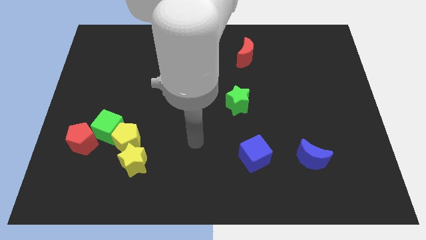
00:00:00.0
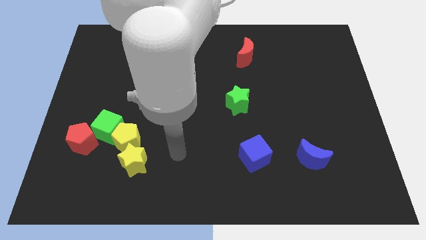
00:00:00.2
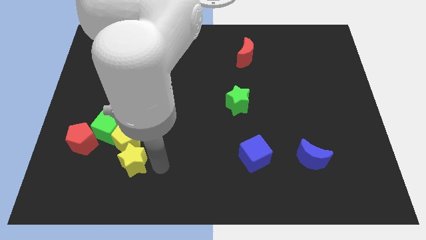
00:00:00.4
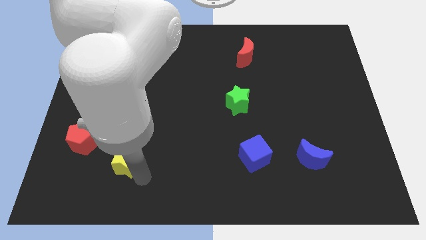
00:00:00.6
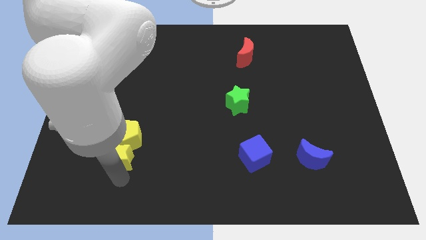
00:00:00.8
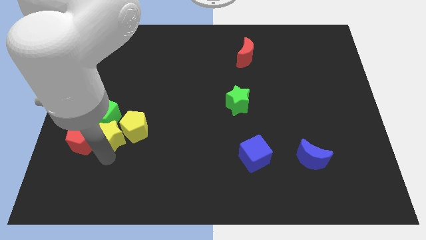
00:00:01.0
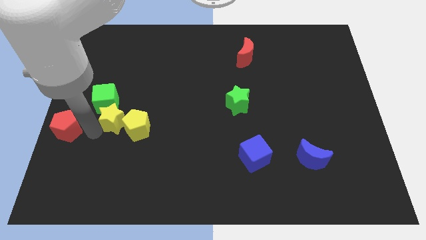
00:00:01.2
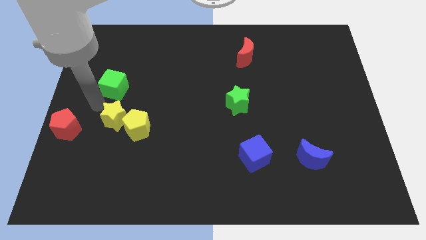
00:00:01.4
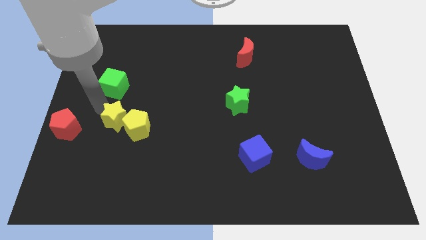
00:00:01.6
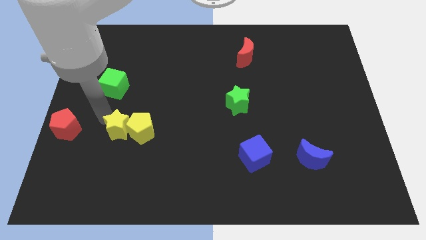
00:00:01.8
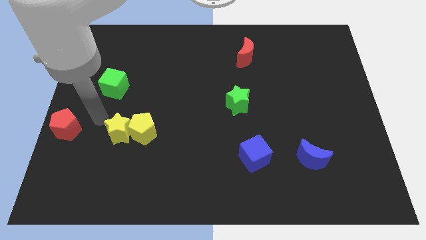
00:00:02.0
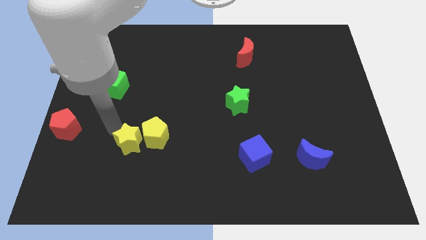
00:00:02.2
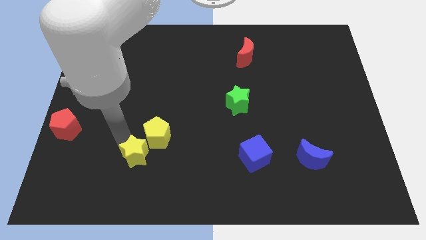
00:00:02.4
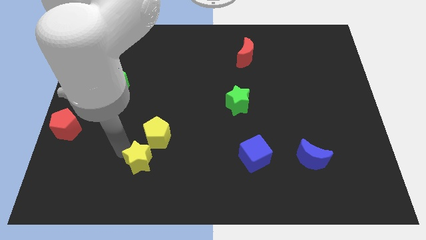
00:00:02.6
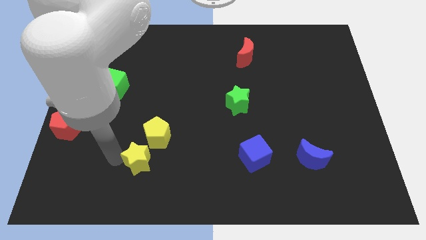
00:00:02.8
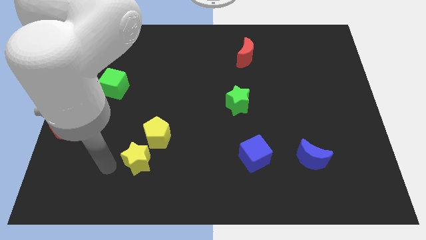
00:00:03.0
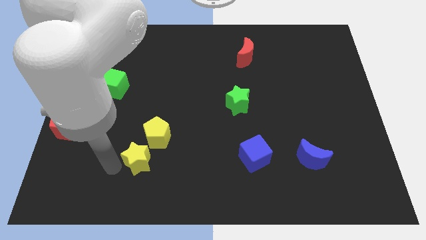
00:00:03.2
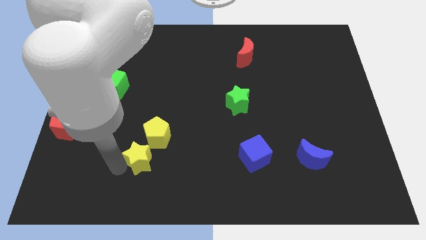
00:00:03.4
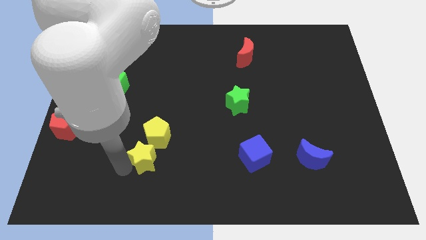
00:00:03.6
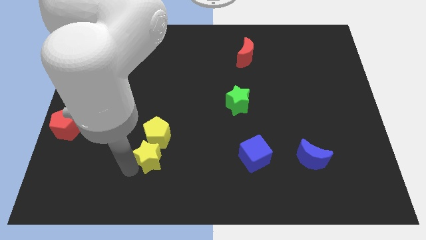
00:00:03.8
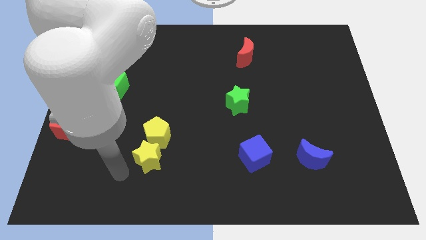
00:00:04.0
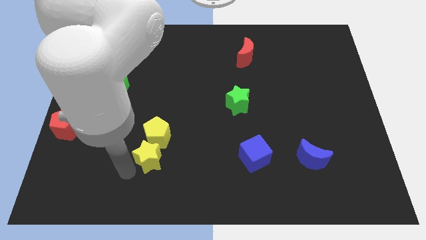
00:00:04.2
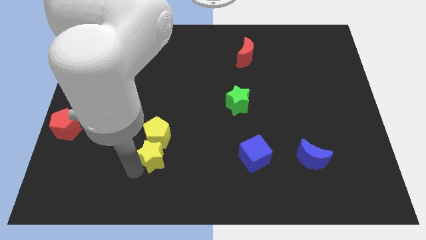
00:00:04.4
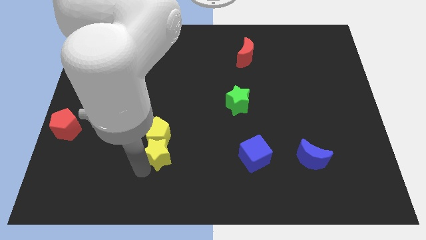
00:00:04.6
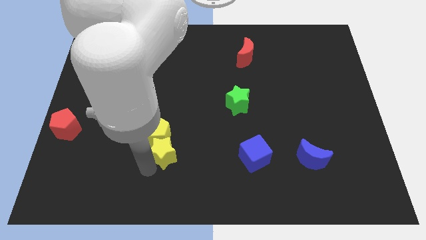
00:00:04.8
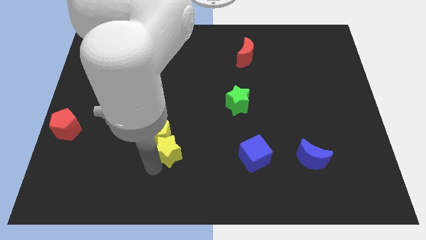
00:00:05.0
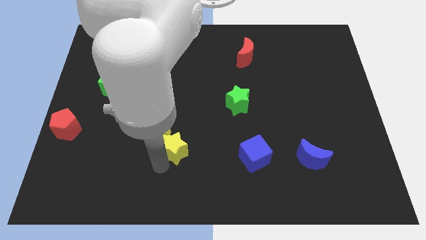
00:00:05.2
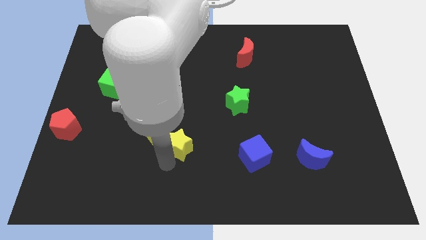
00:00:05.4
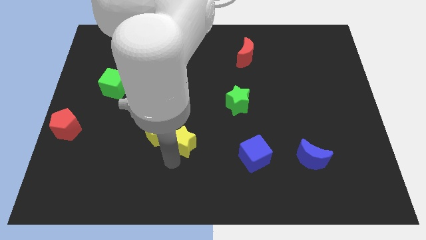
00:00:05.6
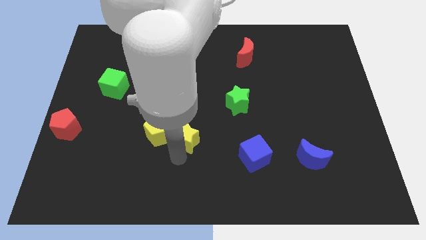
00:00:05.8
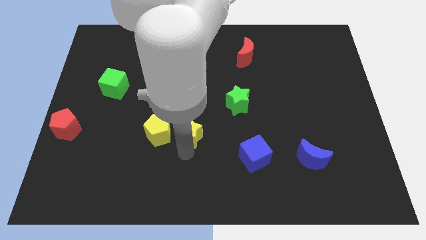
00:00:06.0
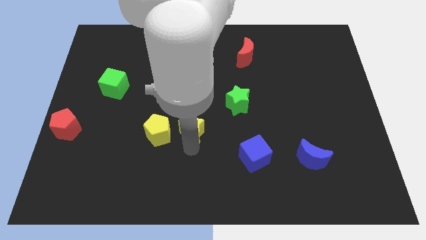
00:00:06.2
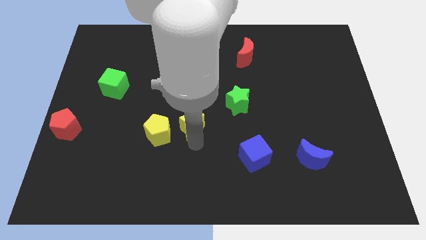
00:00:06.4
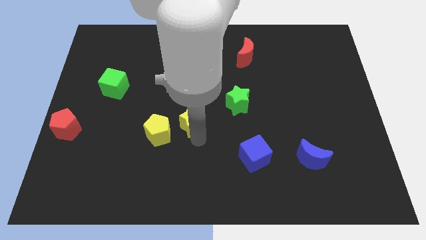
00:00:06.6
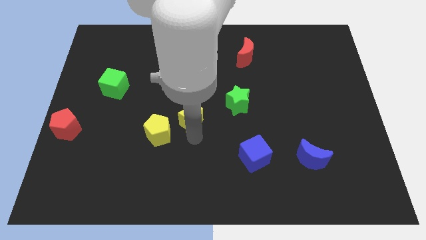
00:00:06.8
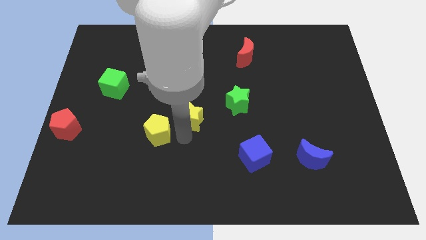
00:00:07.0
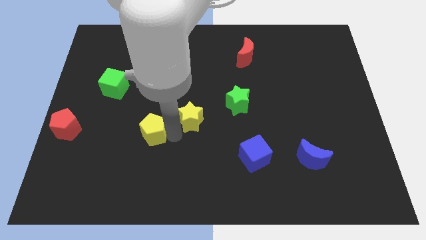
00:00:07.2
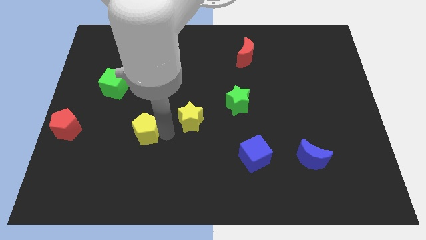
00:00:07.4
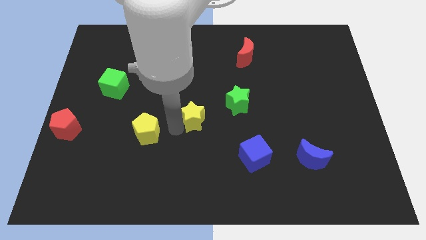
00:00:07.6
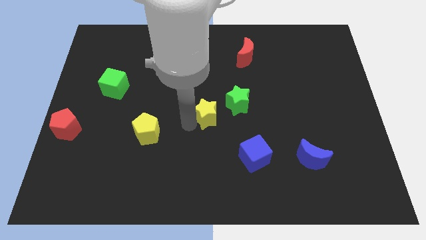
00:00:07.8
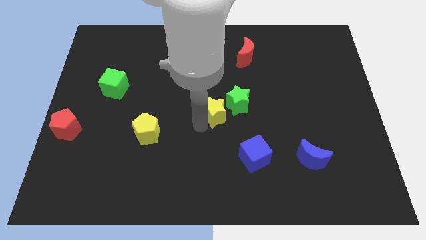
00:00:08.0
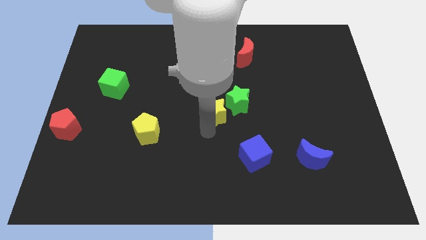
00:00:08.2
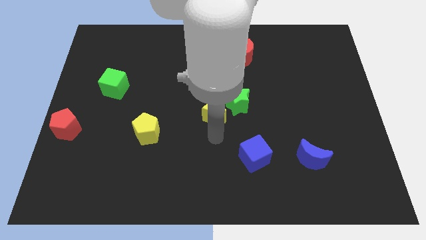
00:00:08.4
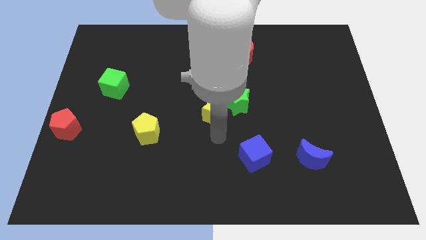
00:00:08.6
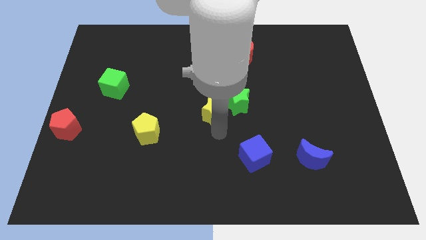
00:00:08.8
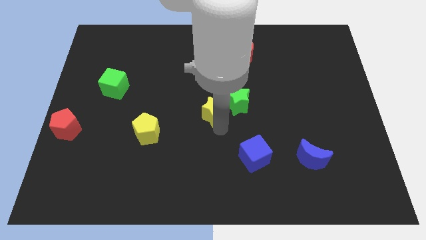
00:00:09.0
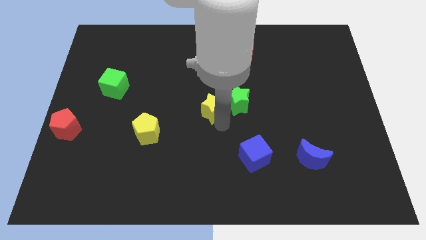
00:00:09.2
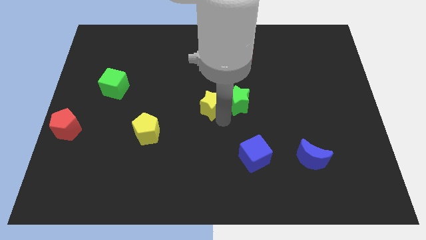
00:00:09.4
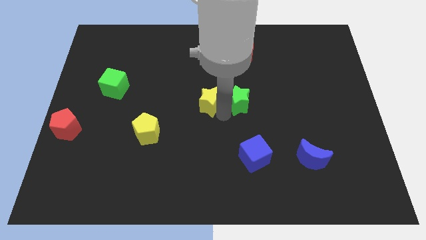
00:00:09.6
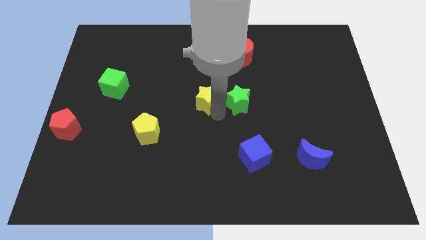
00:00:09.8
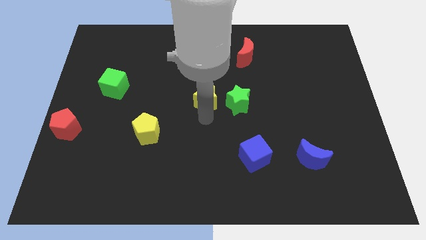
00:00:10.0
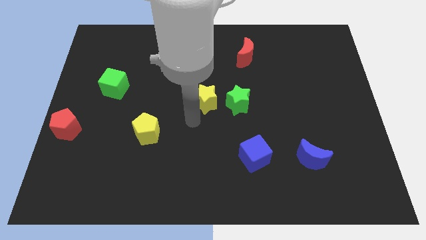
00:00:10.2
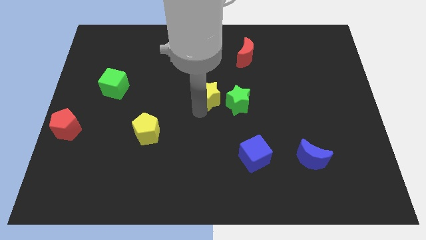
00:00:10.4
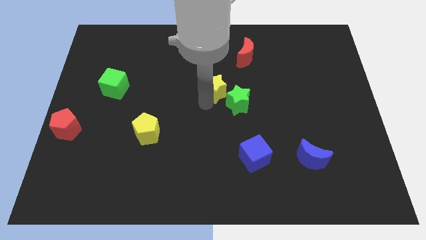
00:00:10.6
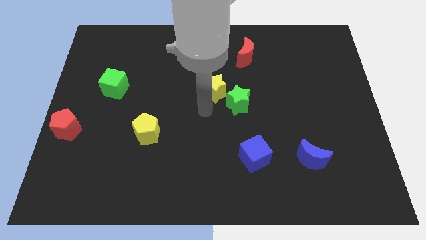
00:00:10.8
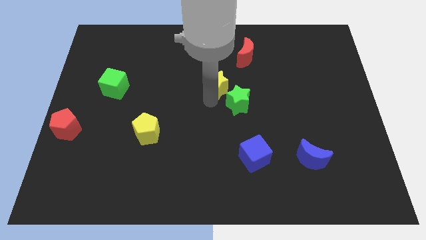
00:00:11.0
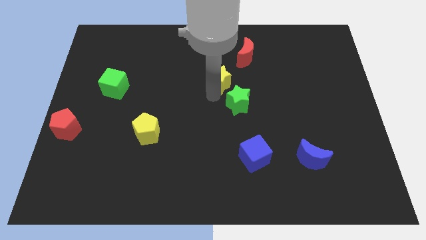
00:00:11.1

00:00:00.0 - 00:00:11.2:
push the yellow star to the bottom left of the red moon
